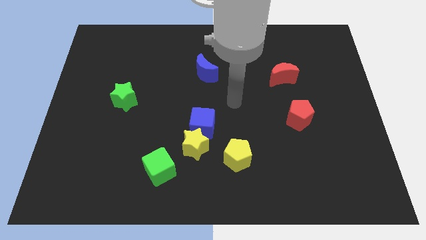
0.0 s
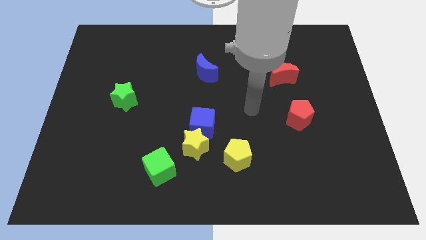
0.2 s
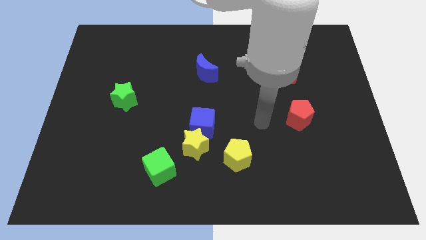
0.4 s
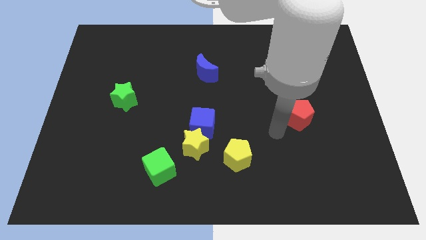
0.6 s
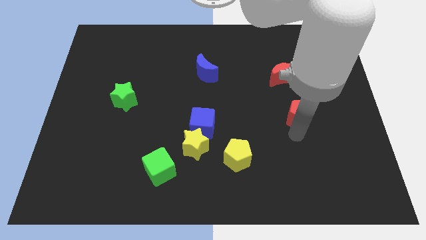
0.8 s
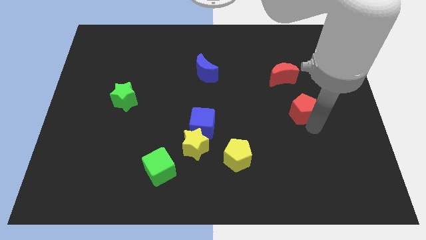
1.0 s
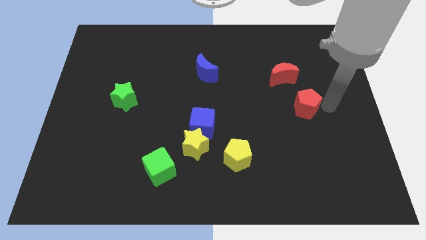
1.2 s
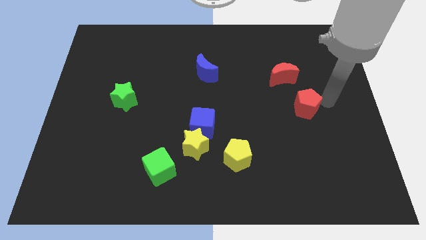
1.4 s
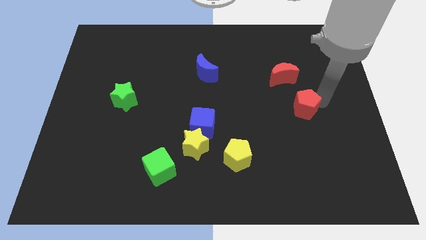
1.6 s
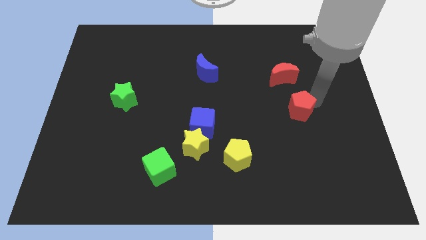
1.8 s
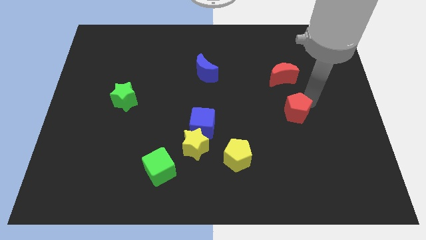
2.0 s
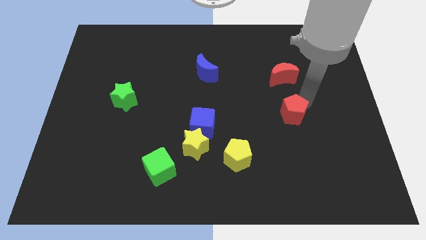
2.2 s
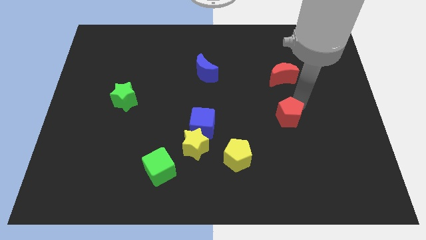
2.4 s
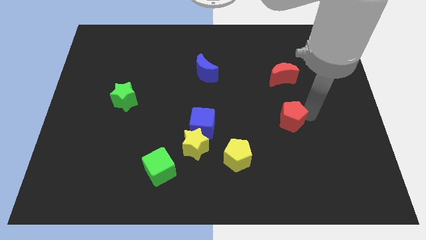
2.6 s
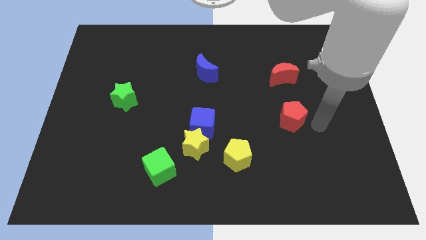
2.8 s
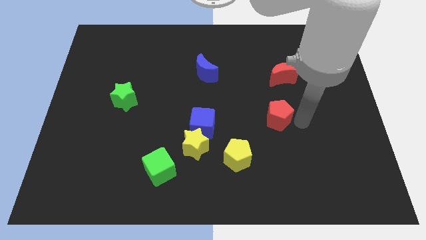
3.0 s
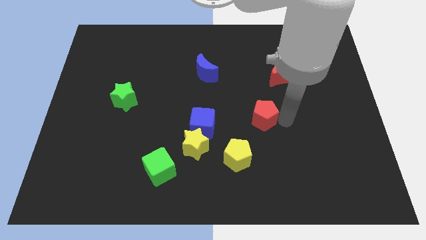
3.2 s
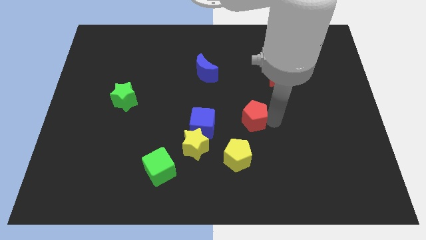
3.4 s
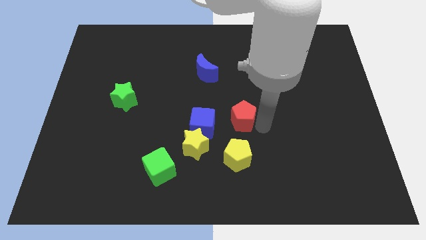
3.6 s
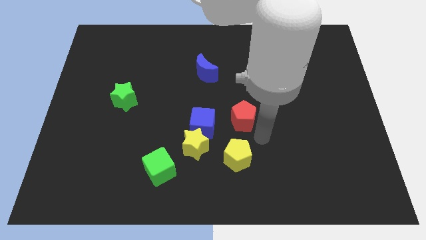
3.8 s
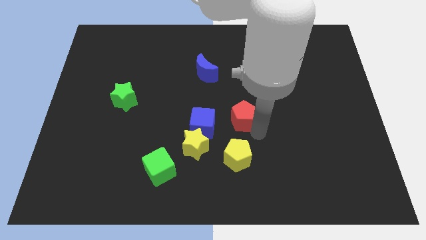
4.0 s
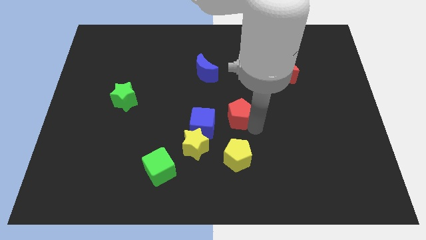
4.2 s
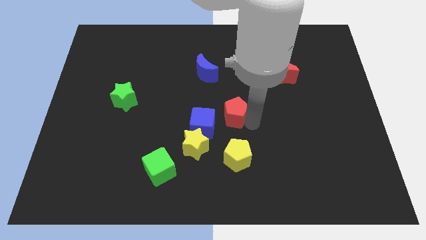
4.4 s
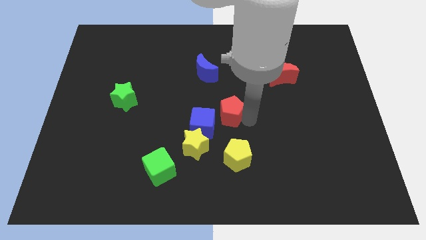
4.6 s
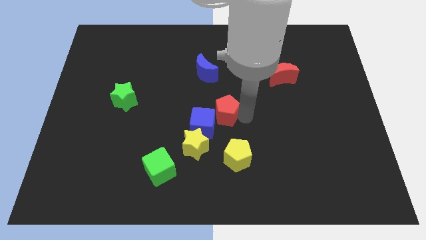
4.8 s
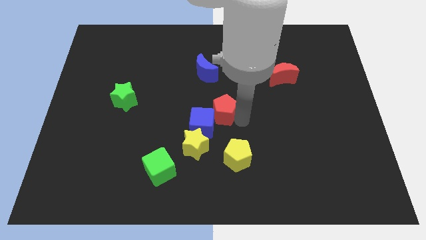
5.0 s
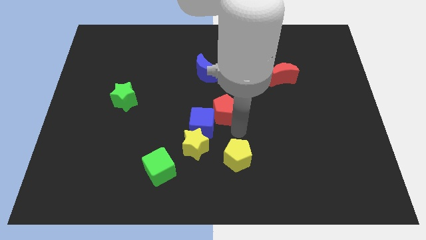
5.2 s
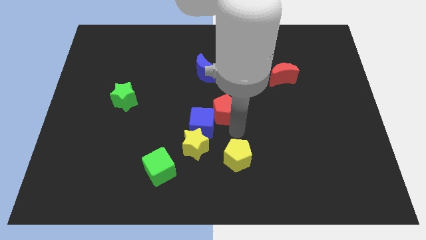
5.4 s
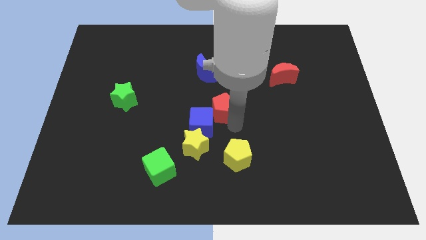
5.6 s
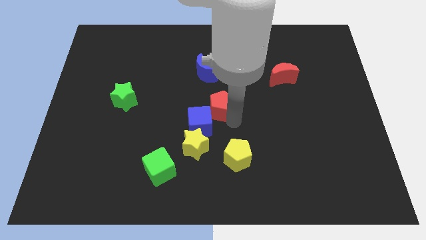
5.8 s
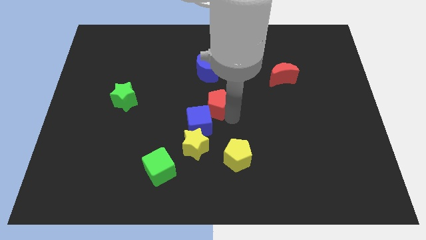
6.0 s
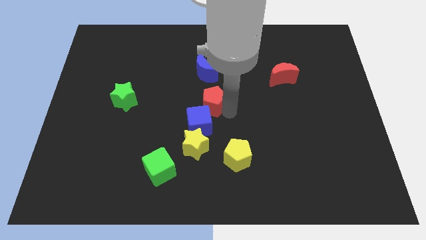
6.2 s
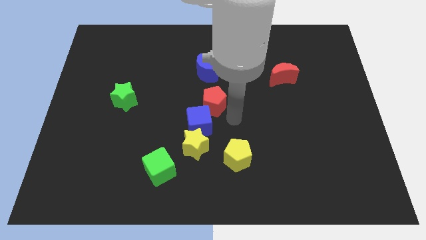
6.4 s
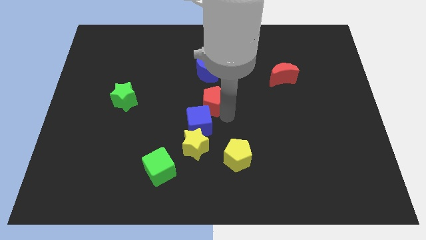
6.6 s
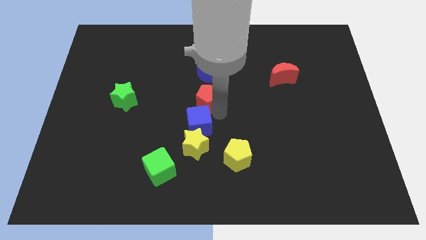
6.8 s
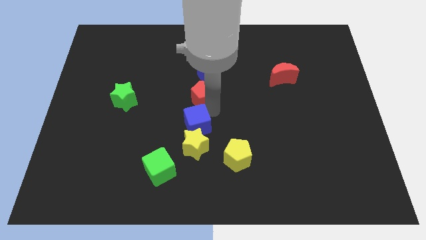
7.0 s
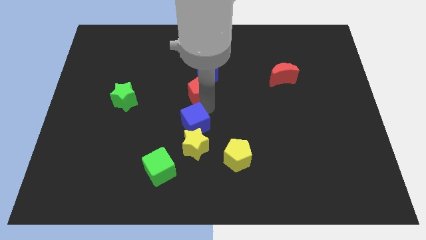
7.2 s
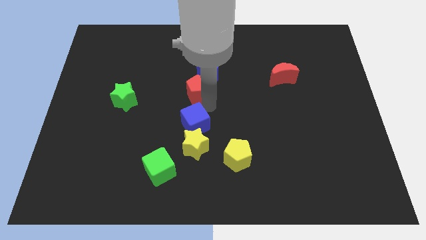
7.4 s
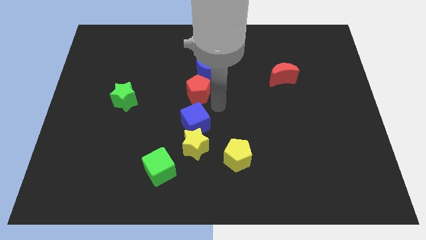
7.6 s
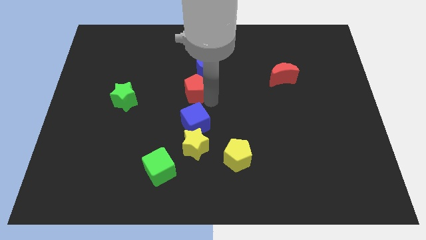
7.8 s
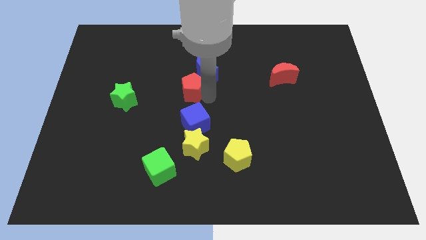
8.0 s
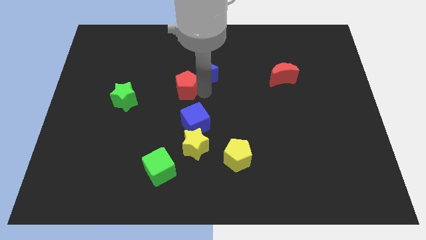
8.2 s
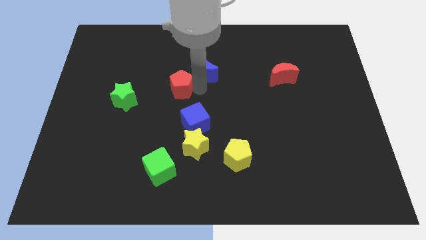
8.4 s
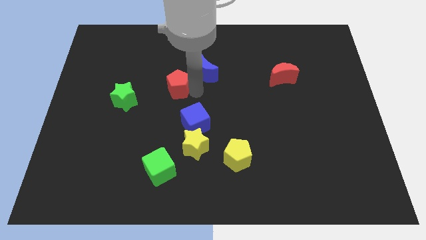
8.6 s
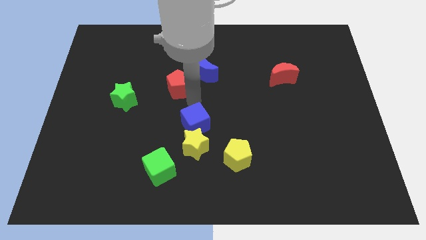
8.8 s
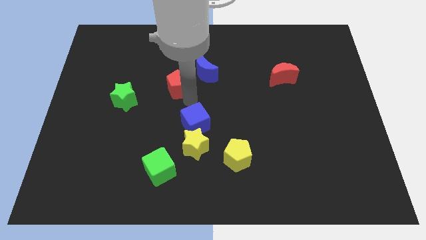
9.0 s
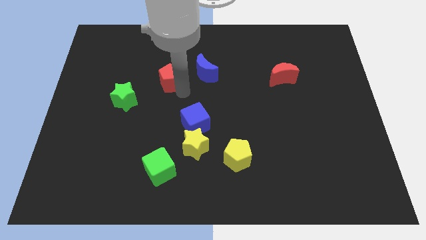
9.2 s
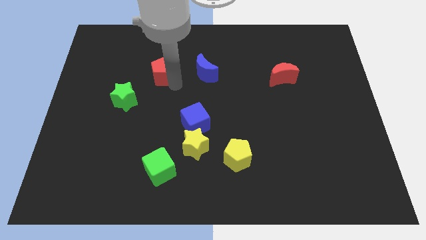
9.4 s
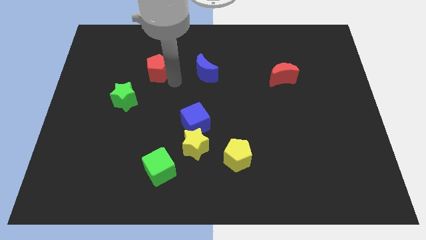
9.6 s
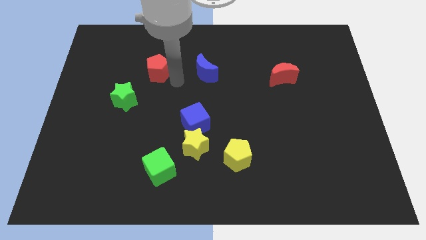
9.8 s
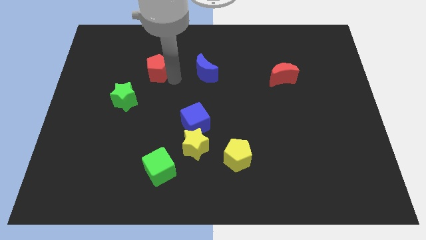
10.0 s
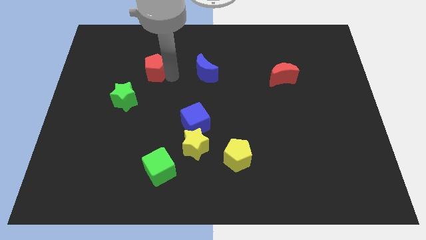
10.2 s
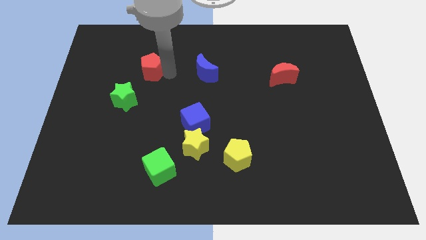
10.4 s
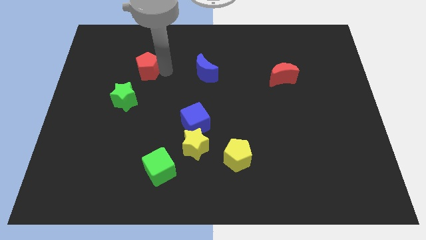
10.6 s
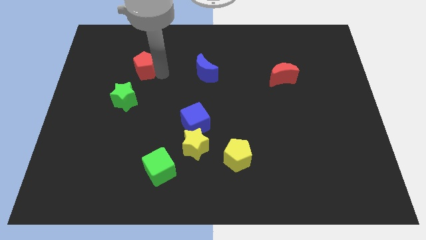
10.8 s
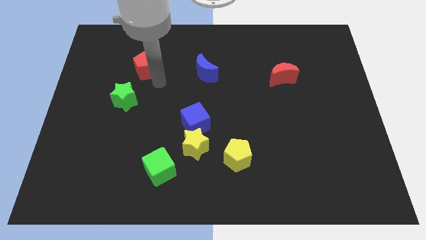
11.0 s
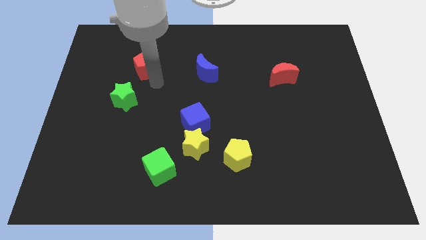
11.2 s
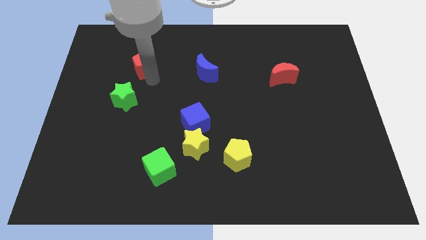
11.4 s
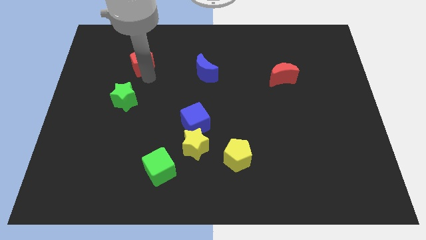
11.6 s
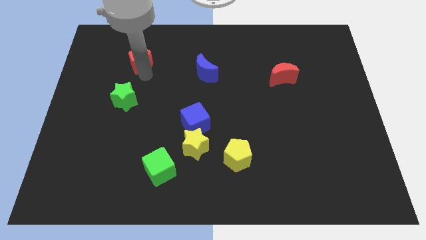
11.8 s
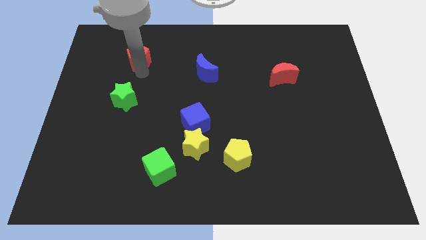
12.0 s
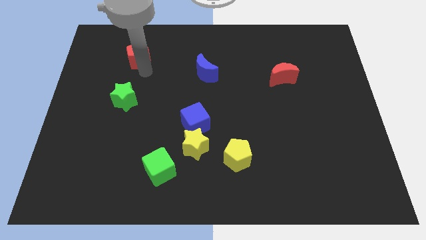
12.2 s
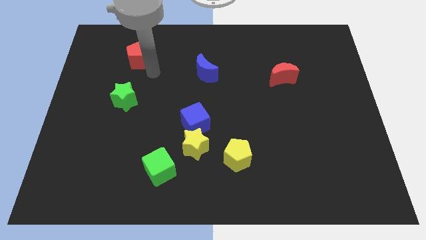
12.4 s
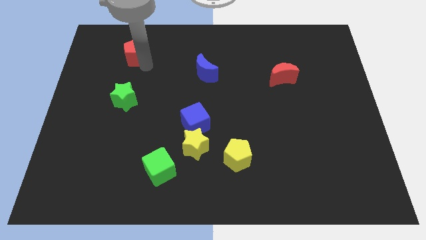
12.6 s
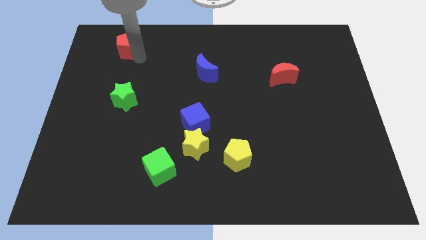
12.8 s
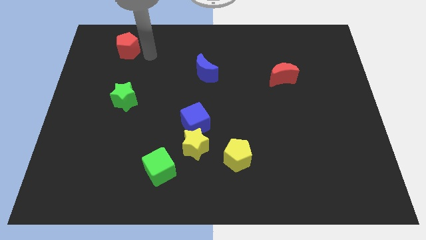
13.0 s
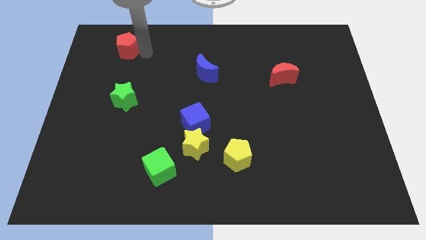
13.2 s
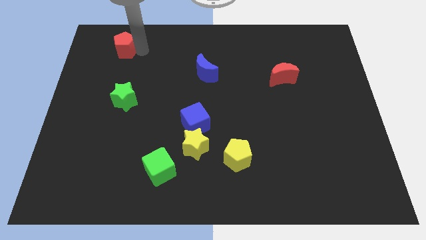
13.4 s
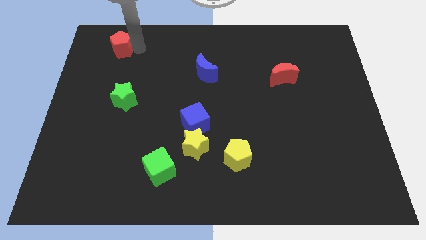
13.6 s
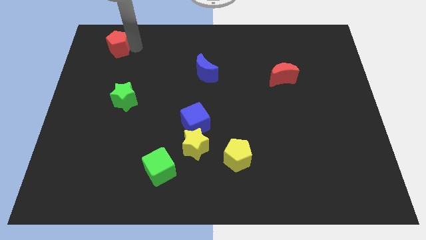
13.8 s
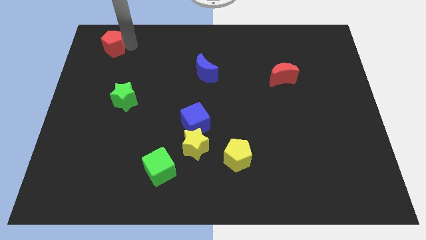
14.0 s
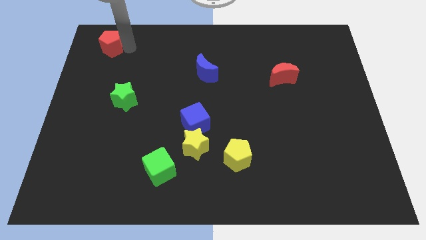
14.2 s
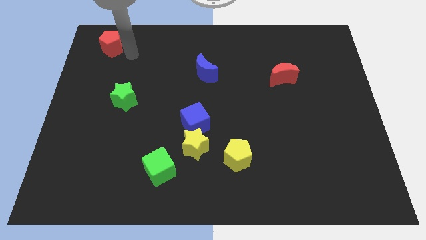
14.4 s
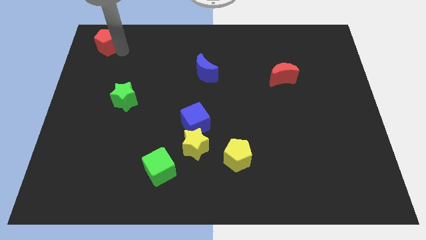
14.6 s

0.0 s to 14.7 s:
put the red pentagon to the top left
